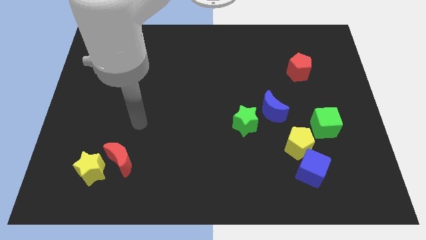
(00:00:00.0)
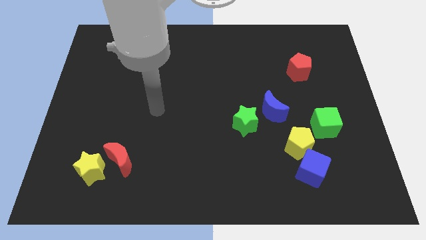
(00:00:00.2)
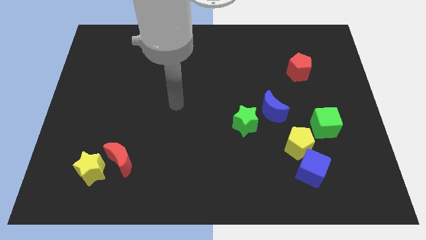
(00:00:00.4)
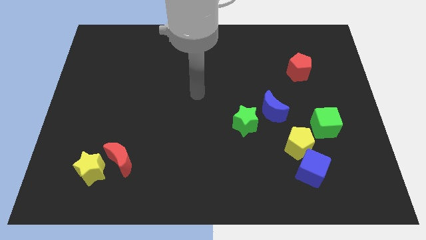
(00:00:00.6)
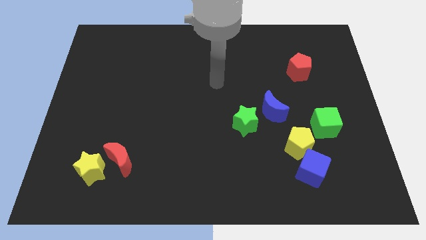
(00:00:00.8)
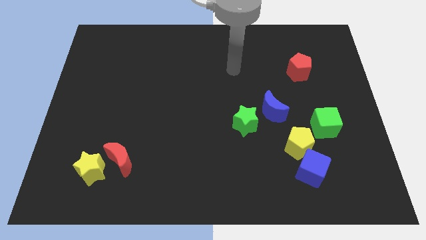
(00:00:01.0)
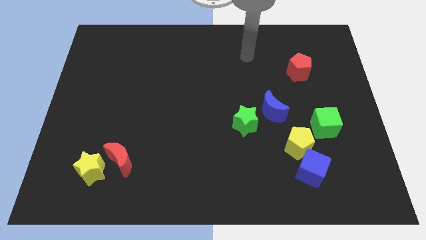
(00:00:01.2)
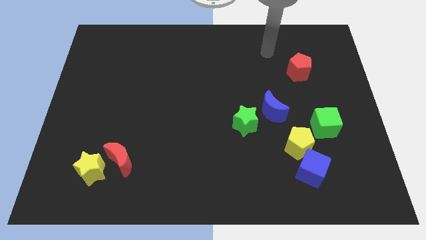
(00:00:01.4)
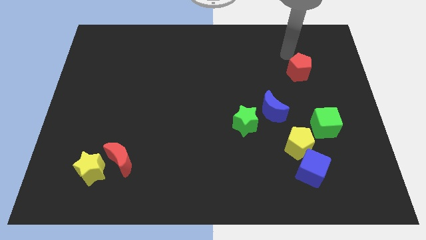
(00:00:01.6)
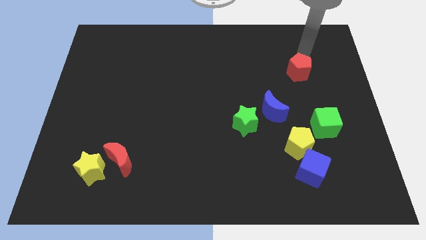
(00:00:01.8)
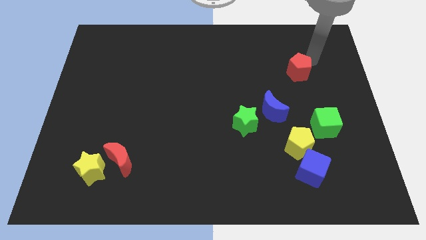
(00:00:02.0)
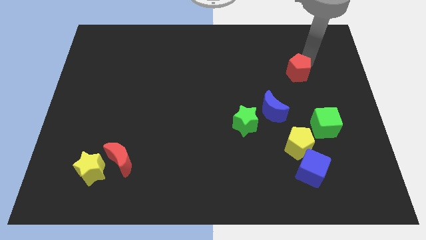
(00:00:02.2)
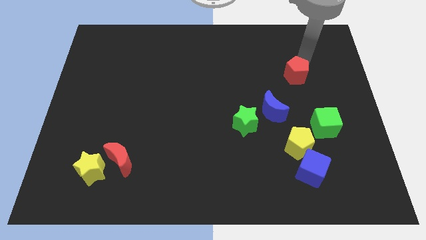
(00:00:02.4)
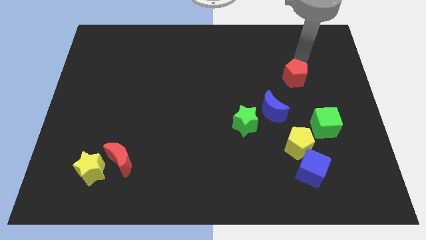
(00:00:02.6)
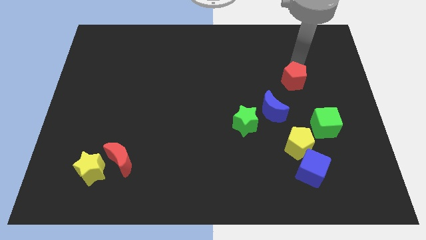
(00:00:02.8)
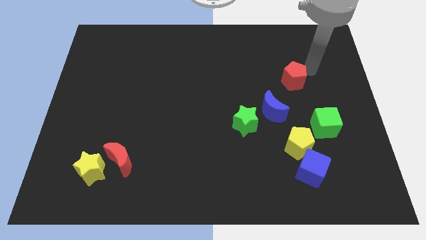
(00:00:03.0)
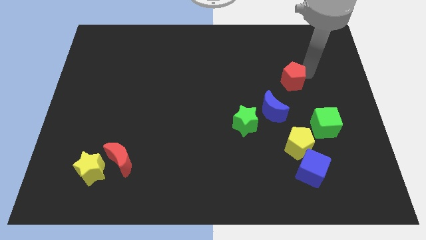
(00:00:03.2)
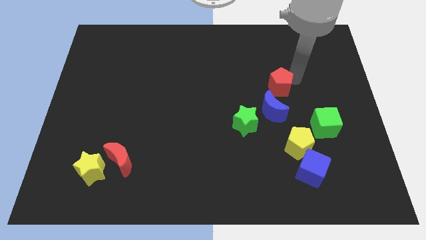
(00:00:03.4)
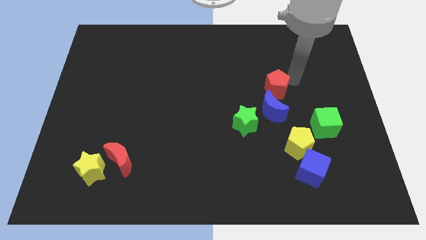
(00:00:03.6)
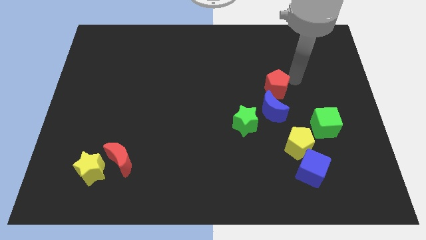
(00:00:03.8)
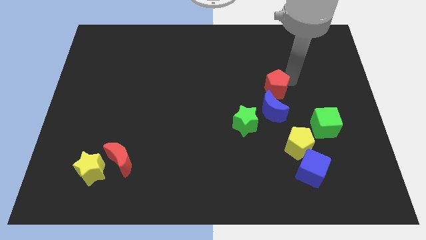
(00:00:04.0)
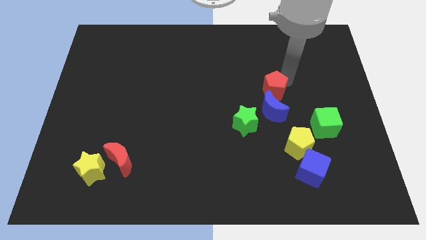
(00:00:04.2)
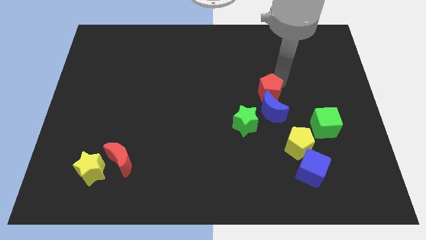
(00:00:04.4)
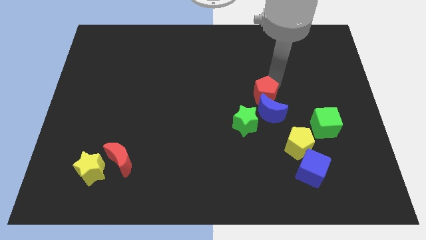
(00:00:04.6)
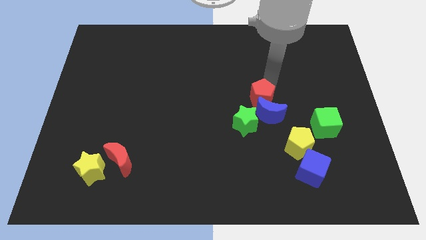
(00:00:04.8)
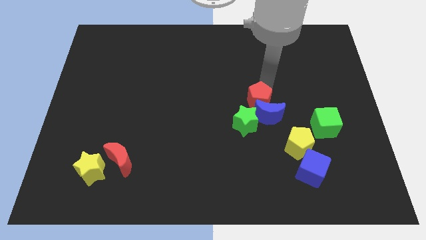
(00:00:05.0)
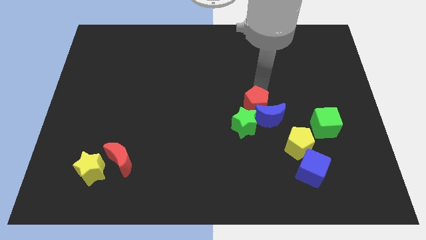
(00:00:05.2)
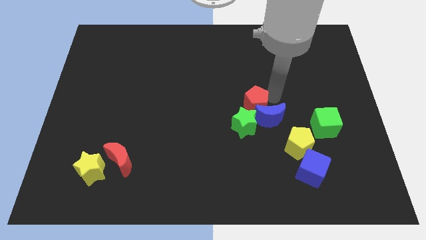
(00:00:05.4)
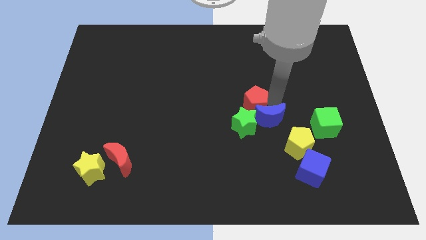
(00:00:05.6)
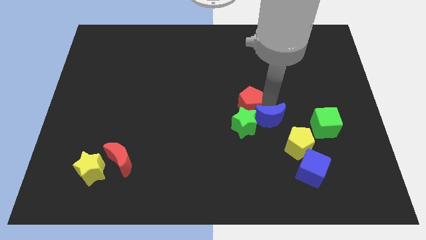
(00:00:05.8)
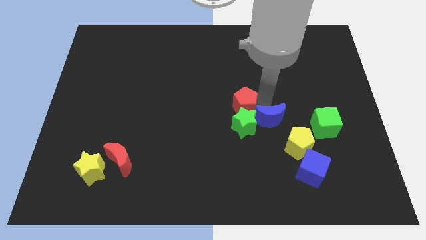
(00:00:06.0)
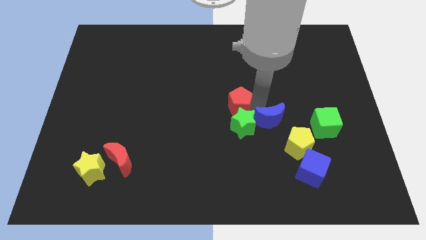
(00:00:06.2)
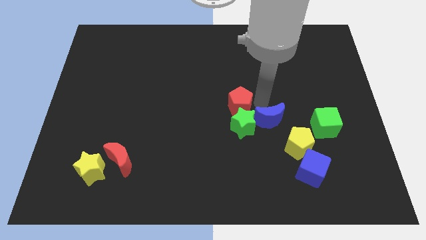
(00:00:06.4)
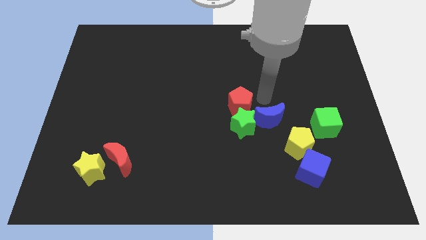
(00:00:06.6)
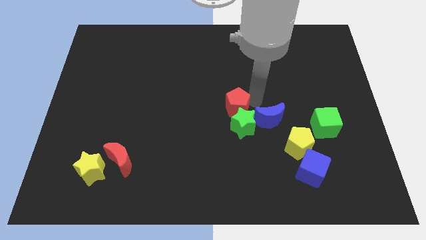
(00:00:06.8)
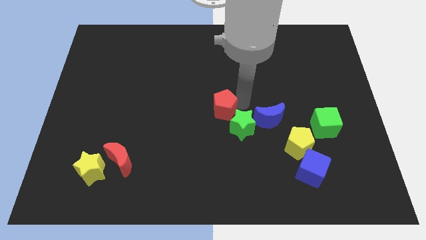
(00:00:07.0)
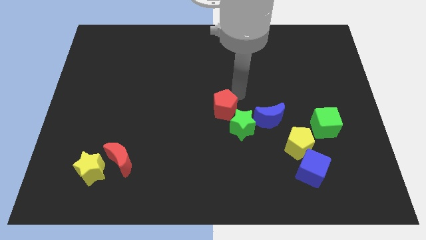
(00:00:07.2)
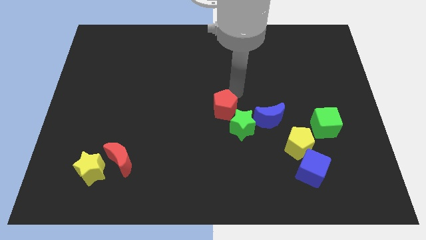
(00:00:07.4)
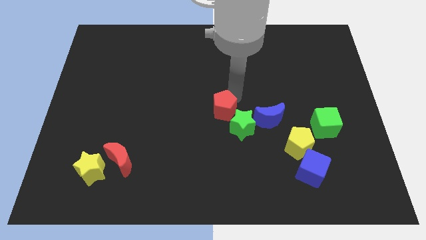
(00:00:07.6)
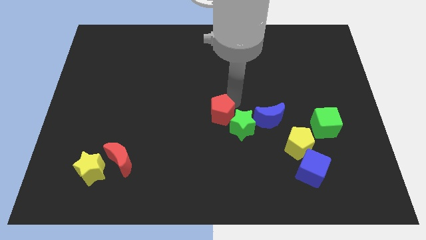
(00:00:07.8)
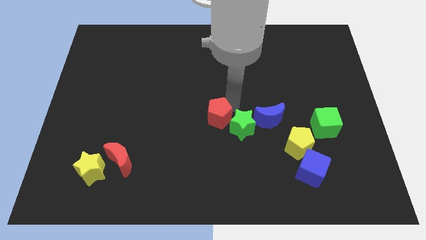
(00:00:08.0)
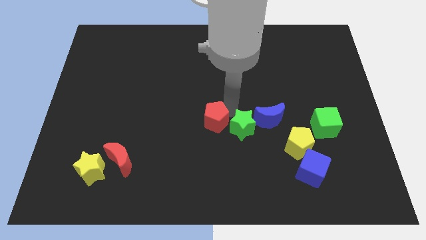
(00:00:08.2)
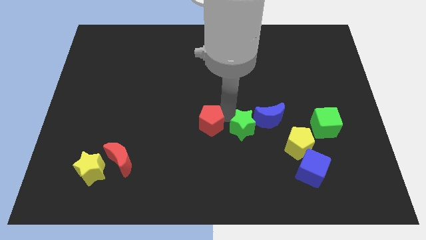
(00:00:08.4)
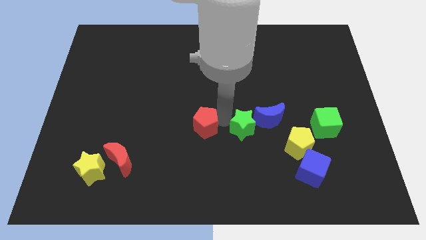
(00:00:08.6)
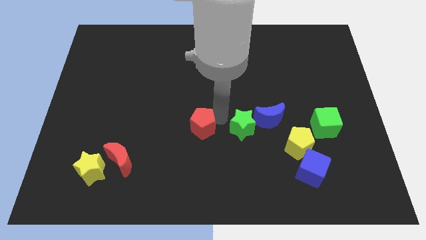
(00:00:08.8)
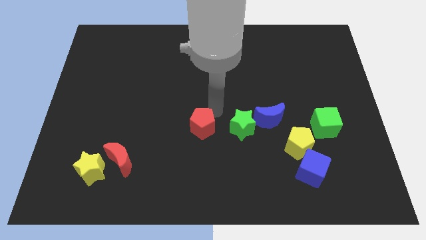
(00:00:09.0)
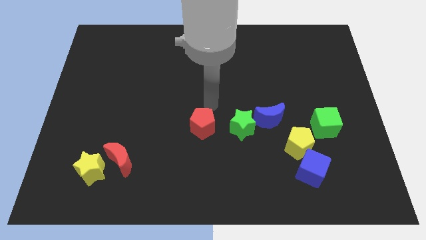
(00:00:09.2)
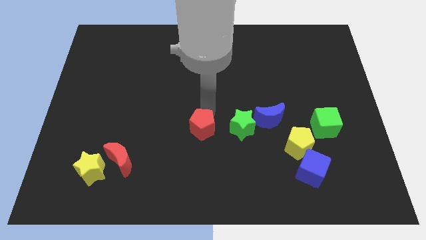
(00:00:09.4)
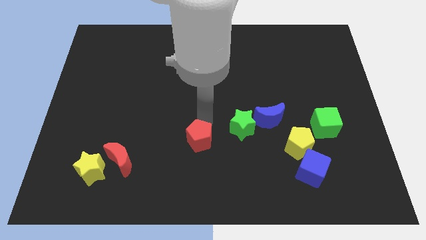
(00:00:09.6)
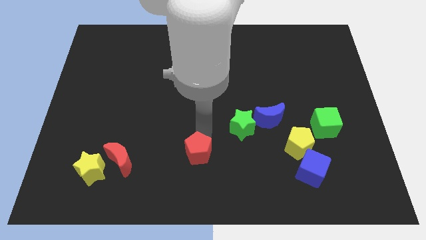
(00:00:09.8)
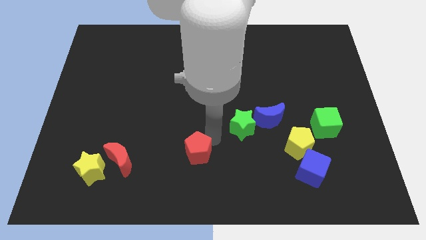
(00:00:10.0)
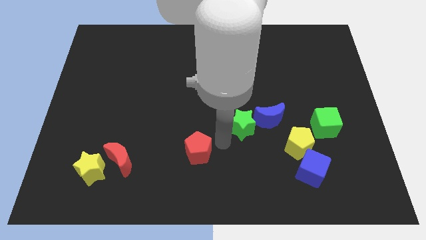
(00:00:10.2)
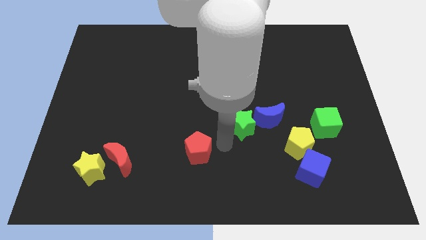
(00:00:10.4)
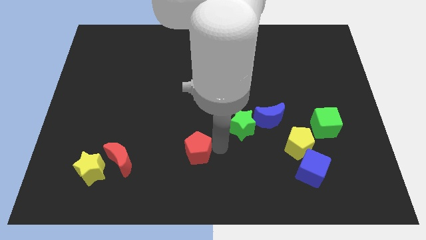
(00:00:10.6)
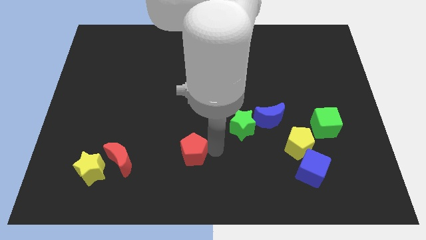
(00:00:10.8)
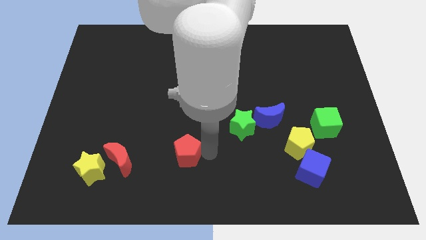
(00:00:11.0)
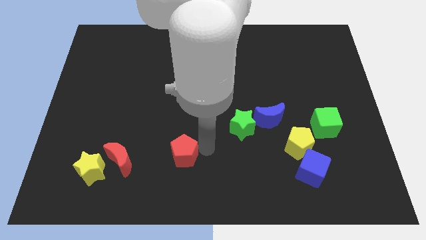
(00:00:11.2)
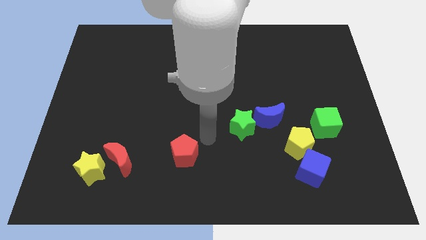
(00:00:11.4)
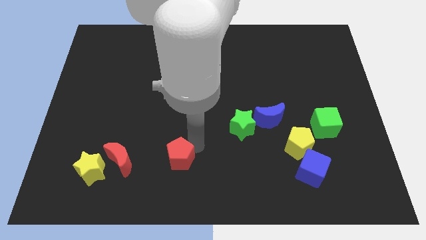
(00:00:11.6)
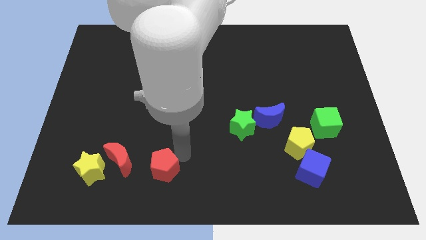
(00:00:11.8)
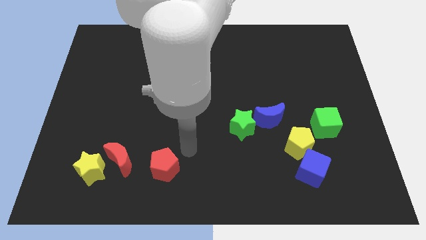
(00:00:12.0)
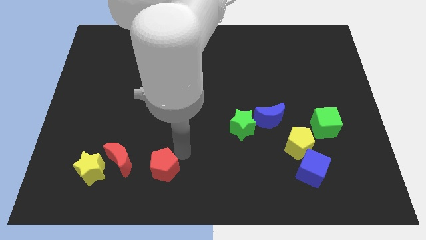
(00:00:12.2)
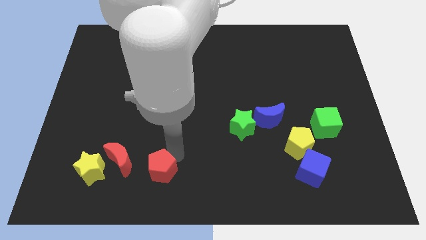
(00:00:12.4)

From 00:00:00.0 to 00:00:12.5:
slide the red pentagon to the bottom right side of the red moon
